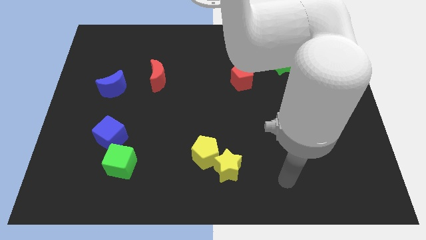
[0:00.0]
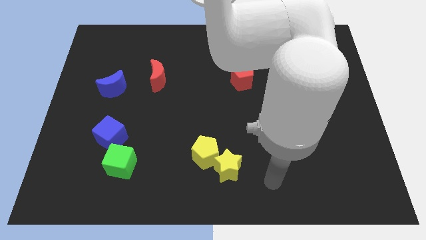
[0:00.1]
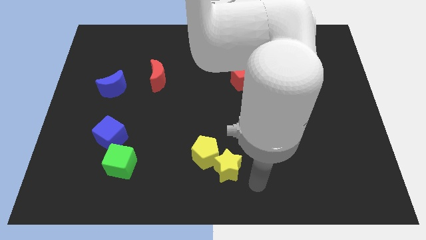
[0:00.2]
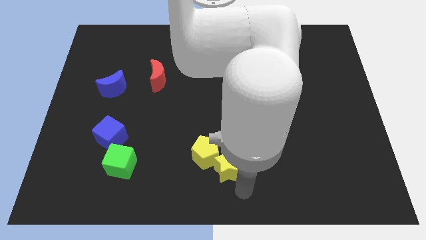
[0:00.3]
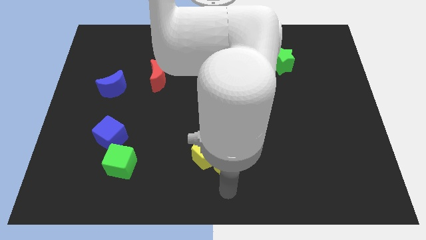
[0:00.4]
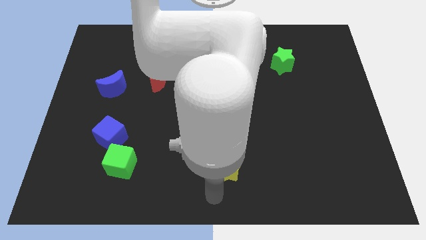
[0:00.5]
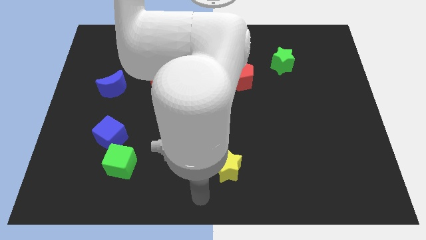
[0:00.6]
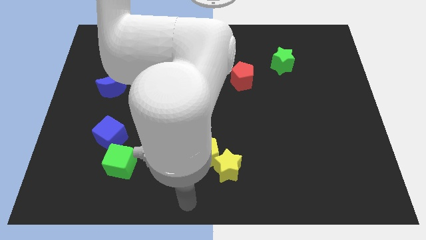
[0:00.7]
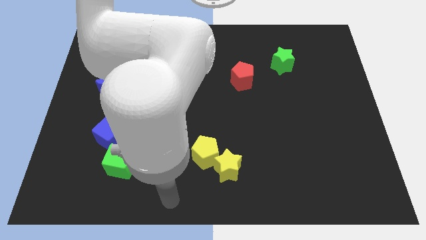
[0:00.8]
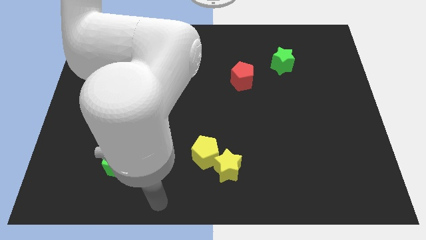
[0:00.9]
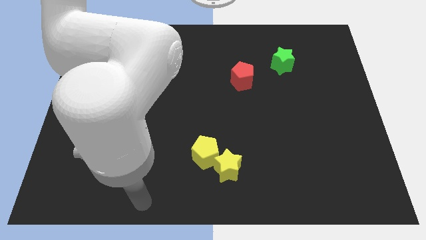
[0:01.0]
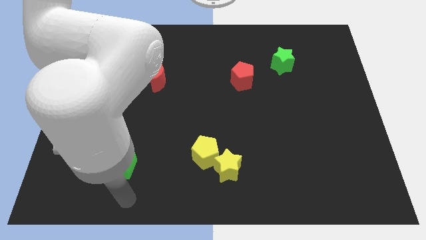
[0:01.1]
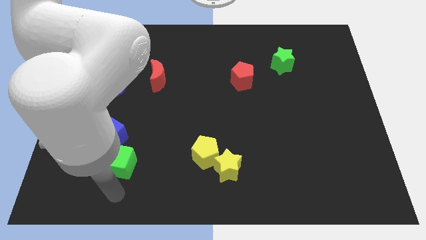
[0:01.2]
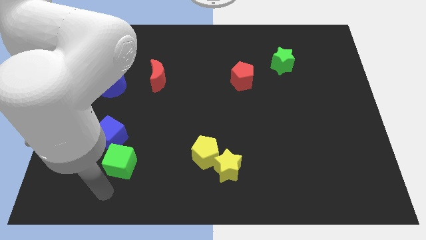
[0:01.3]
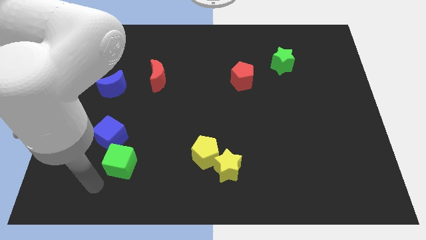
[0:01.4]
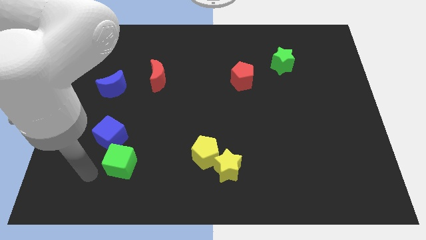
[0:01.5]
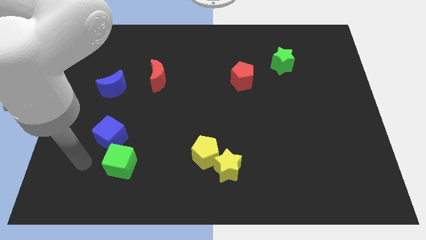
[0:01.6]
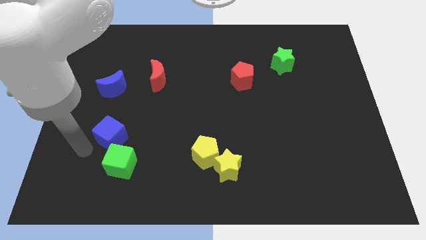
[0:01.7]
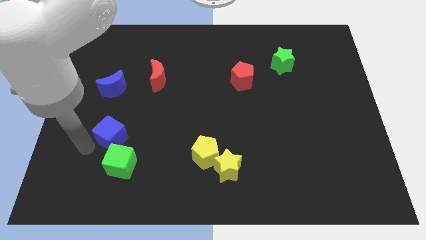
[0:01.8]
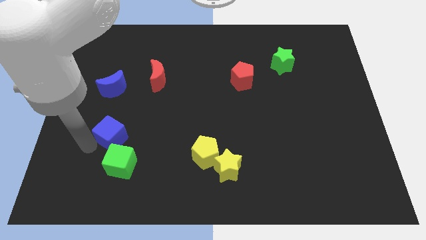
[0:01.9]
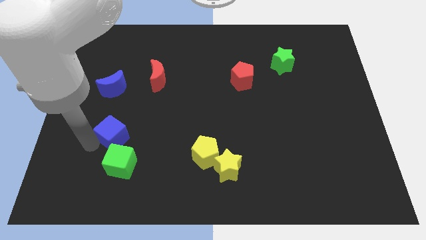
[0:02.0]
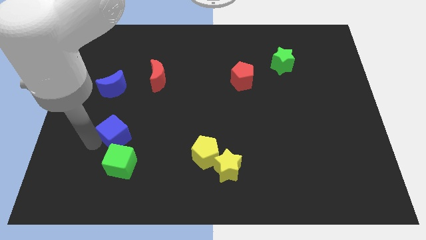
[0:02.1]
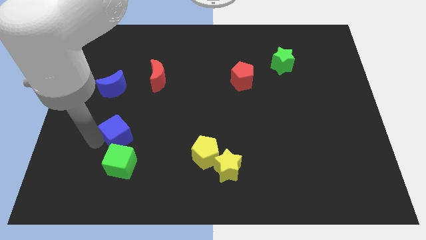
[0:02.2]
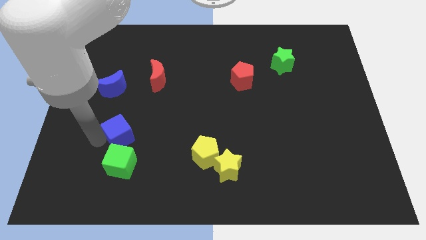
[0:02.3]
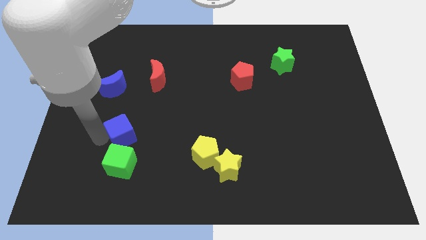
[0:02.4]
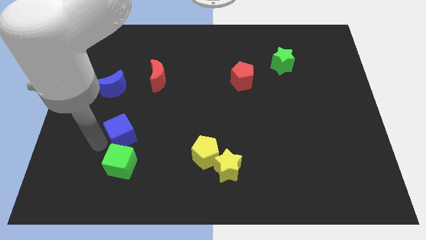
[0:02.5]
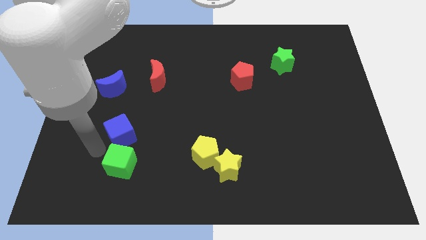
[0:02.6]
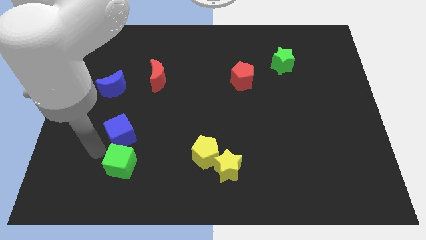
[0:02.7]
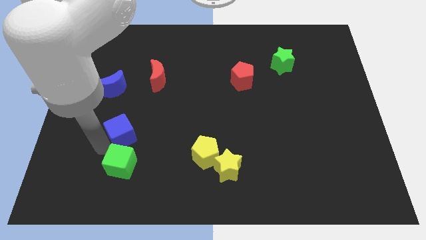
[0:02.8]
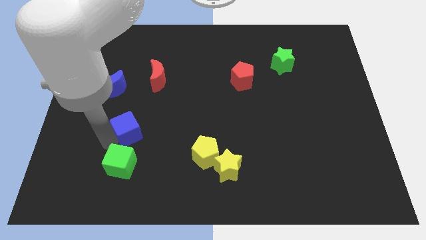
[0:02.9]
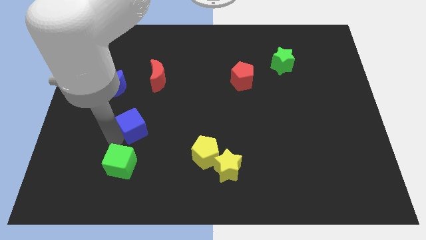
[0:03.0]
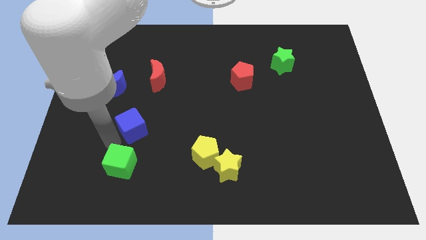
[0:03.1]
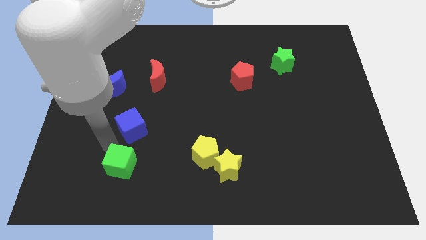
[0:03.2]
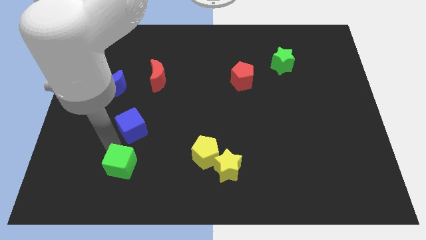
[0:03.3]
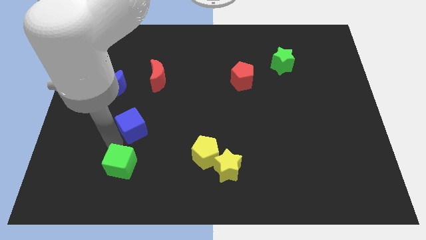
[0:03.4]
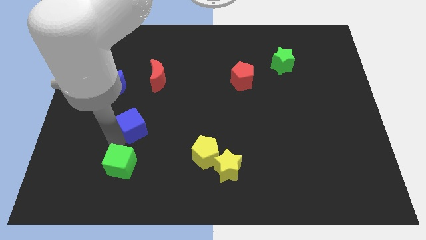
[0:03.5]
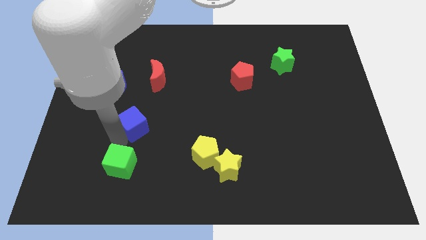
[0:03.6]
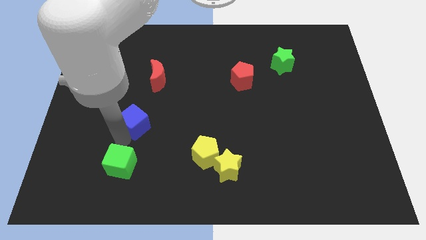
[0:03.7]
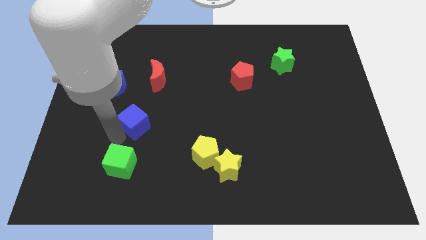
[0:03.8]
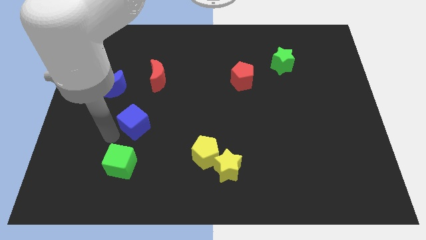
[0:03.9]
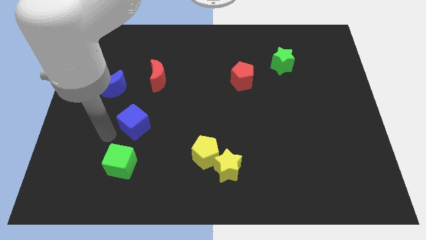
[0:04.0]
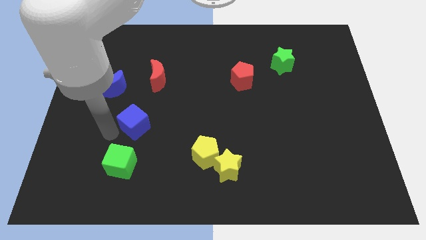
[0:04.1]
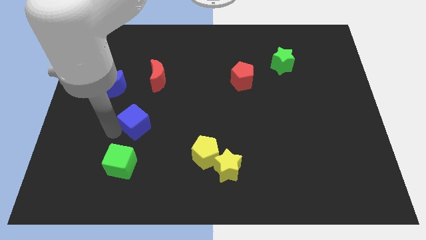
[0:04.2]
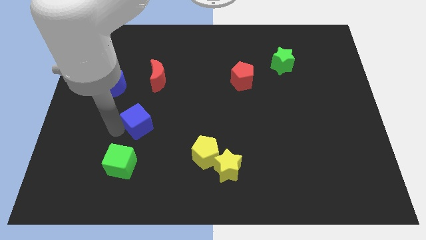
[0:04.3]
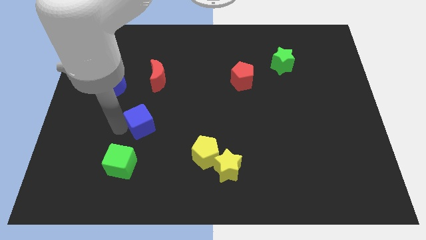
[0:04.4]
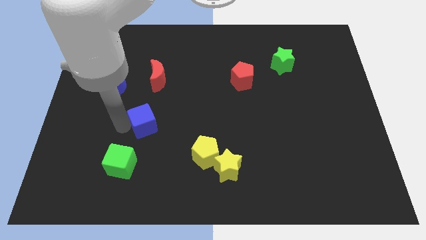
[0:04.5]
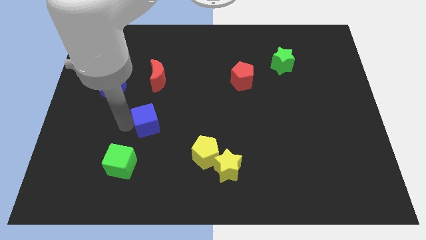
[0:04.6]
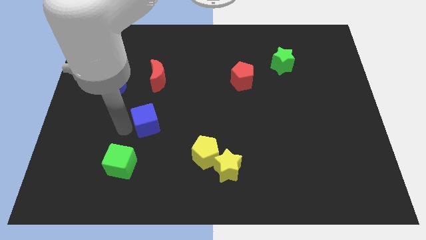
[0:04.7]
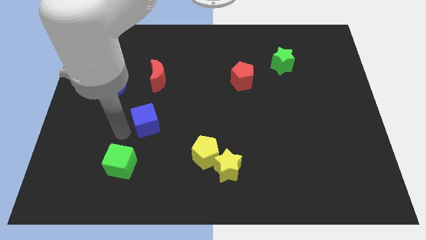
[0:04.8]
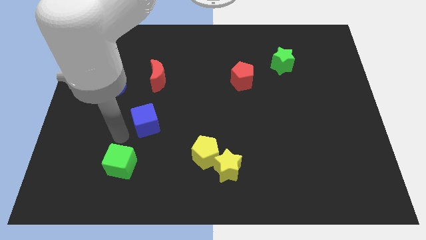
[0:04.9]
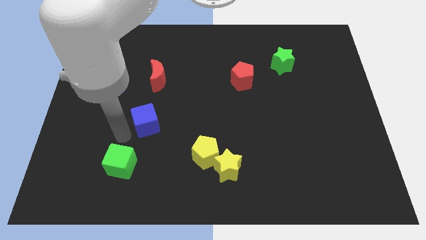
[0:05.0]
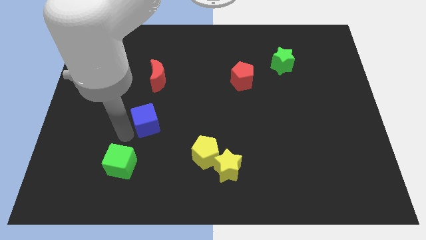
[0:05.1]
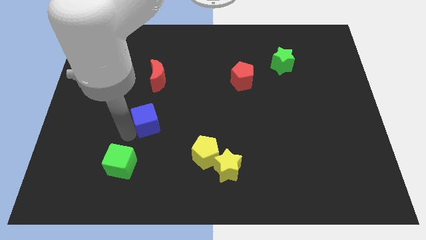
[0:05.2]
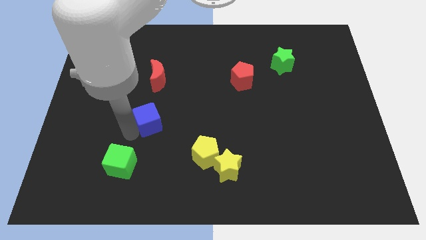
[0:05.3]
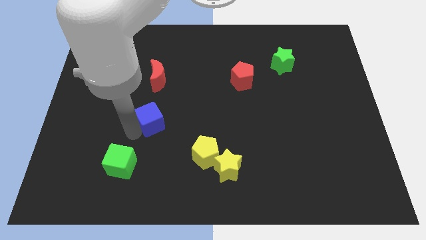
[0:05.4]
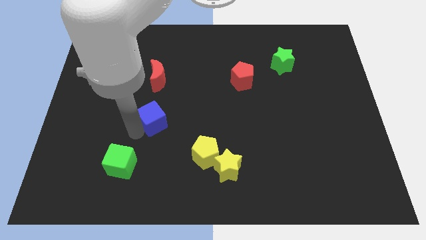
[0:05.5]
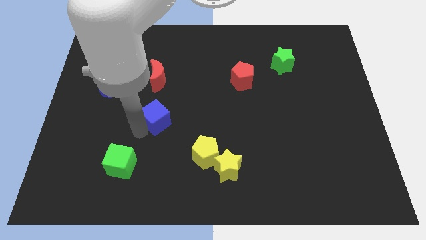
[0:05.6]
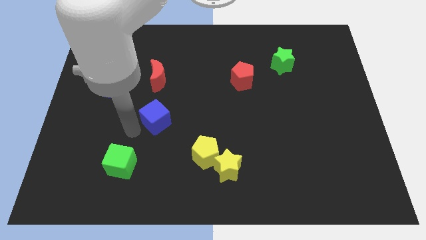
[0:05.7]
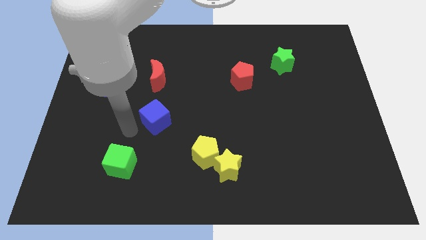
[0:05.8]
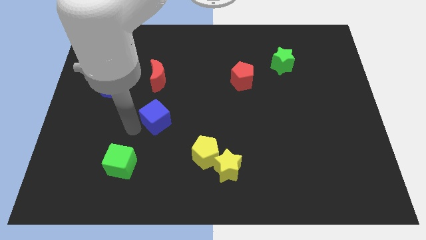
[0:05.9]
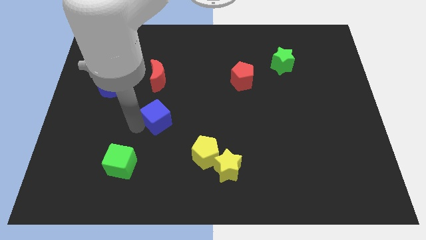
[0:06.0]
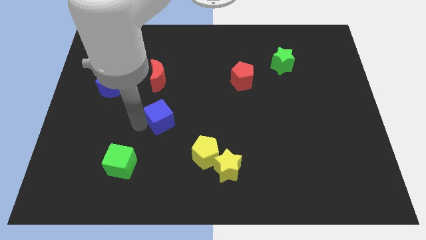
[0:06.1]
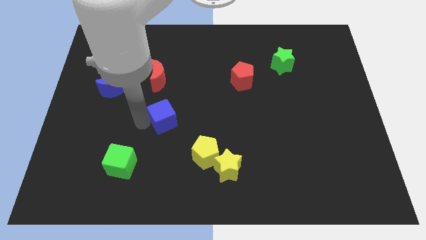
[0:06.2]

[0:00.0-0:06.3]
move the blue cube to the middle

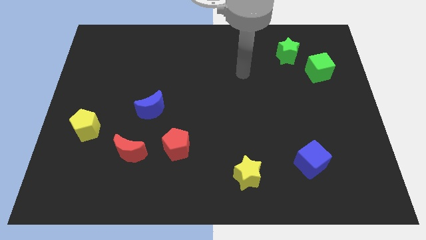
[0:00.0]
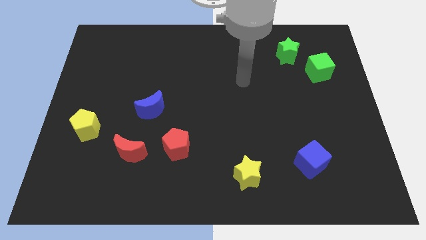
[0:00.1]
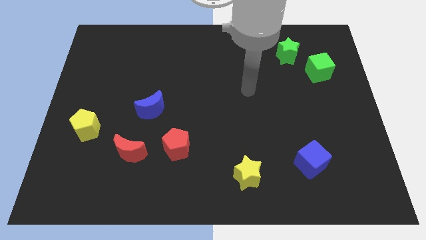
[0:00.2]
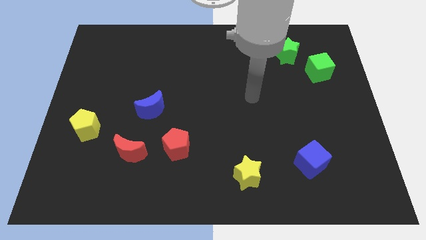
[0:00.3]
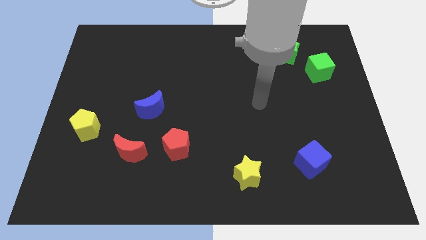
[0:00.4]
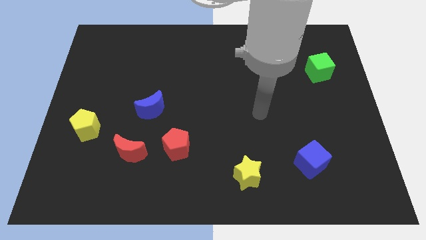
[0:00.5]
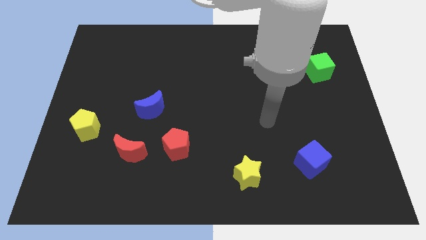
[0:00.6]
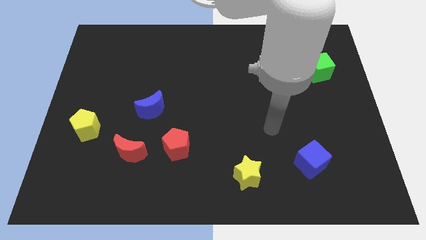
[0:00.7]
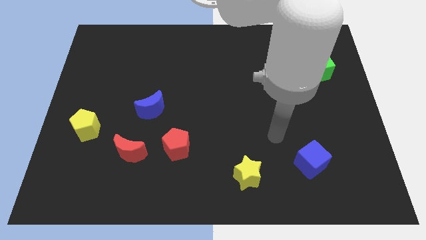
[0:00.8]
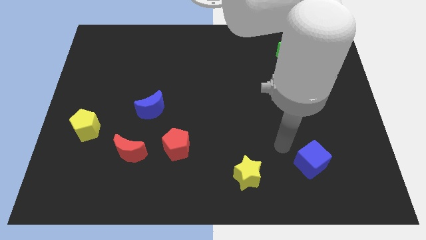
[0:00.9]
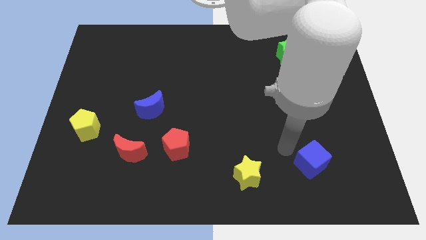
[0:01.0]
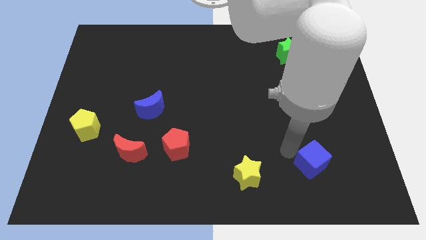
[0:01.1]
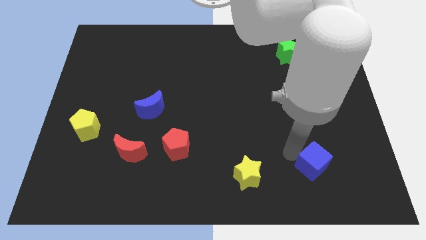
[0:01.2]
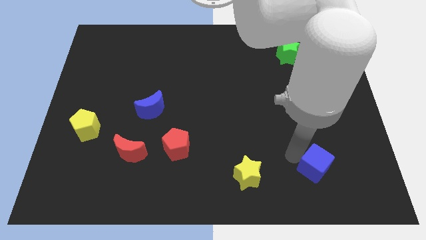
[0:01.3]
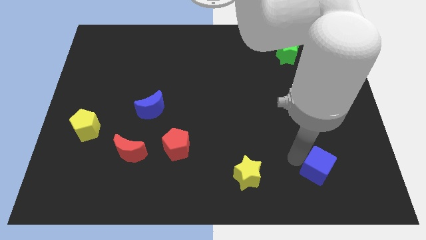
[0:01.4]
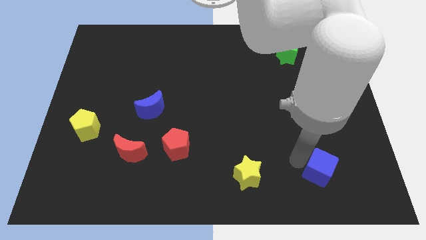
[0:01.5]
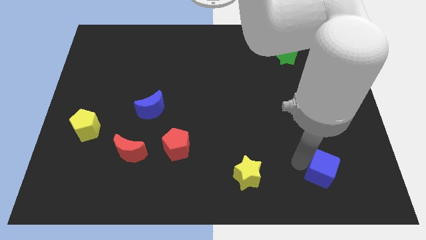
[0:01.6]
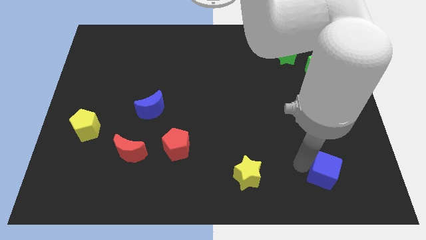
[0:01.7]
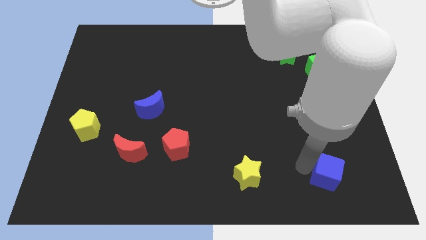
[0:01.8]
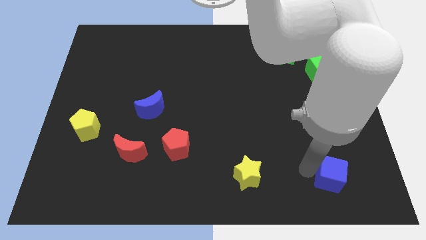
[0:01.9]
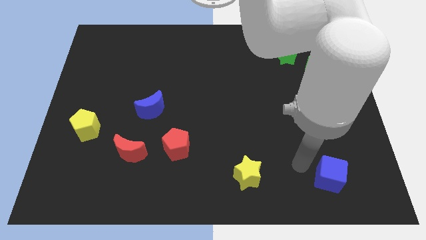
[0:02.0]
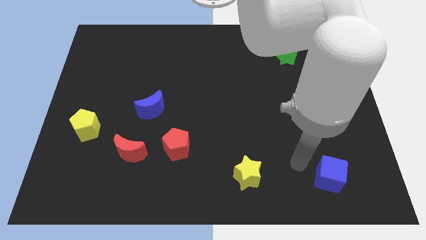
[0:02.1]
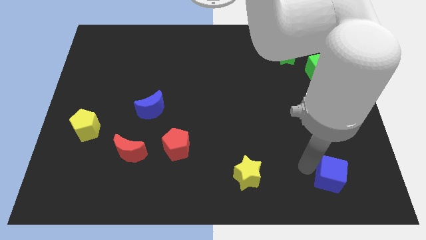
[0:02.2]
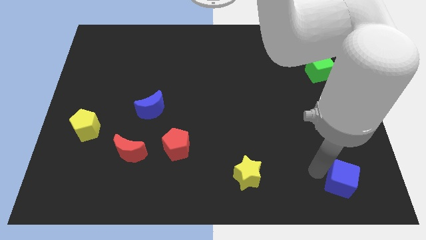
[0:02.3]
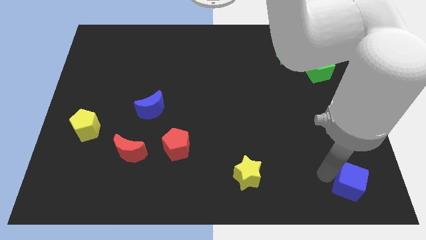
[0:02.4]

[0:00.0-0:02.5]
slide the blue cube to the bottom right corner
